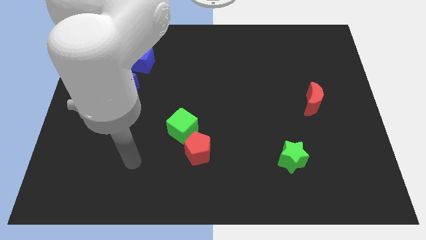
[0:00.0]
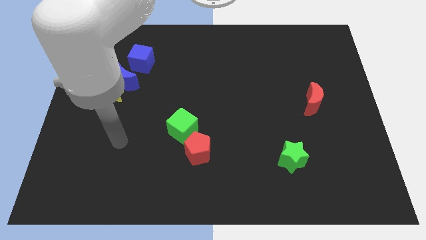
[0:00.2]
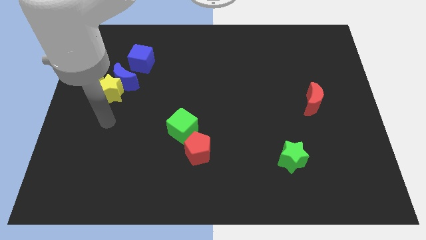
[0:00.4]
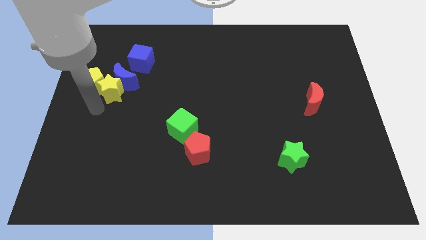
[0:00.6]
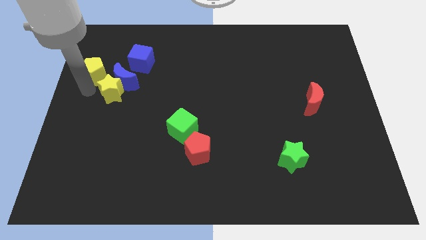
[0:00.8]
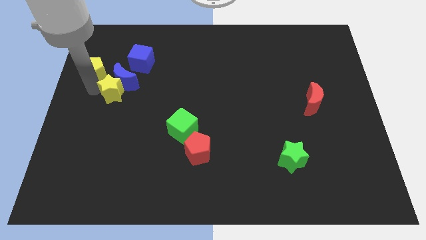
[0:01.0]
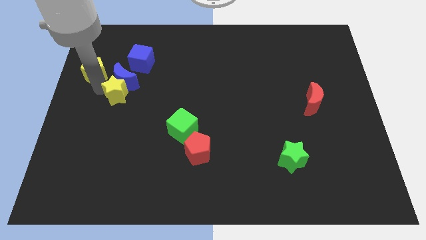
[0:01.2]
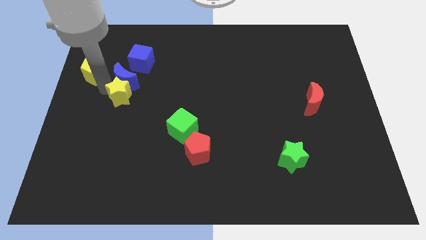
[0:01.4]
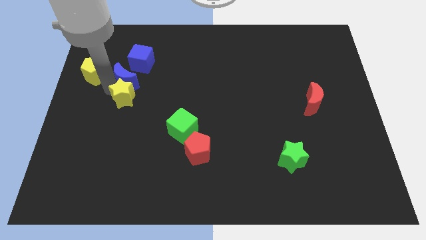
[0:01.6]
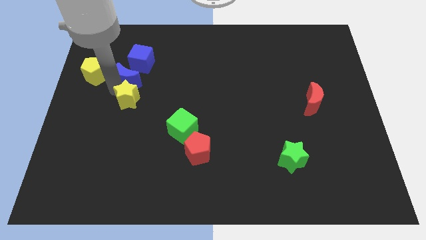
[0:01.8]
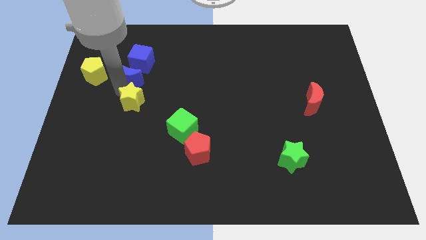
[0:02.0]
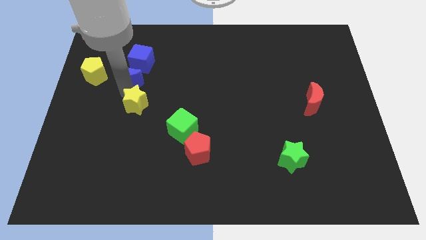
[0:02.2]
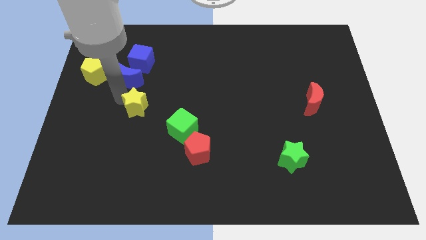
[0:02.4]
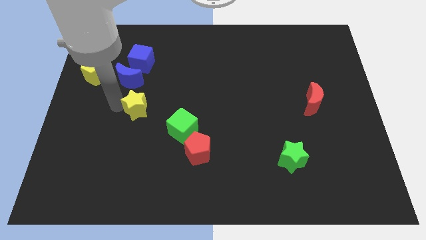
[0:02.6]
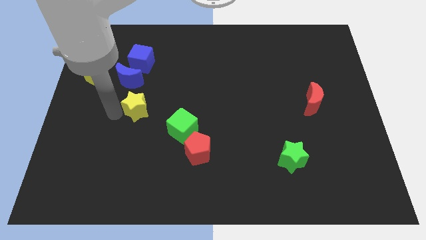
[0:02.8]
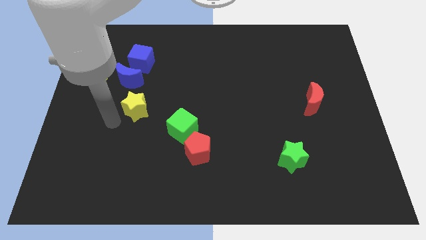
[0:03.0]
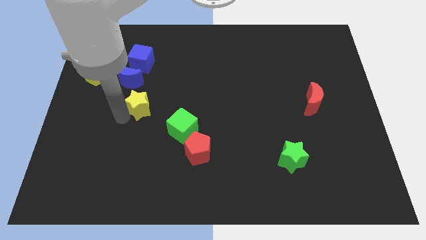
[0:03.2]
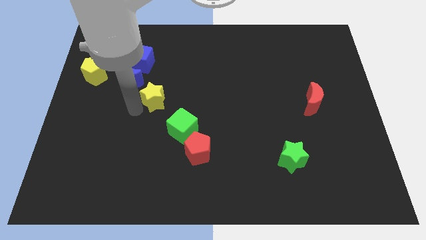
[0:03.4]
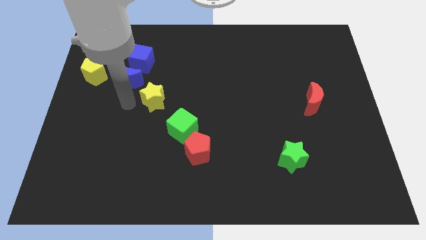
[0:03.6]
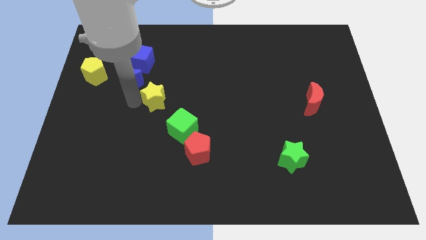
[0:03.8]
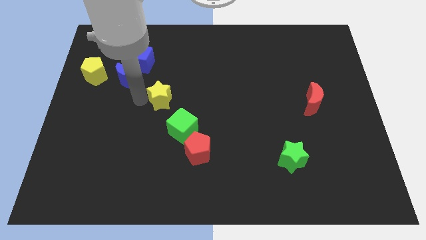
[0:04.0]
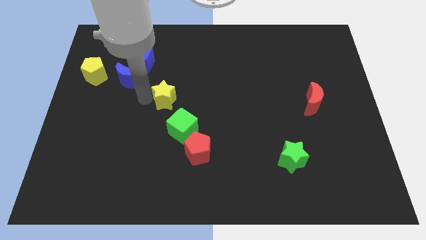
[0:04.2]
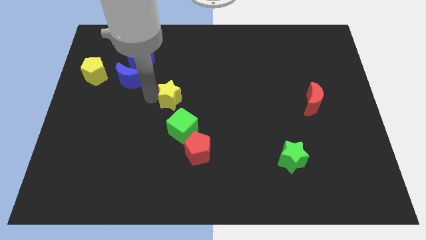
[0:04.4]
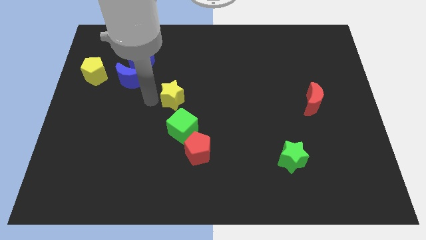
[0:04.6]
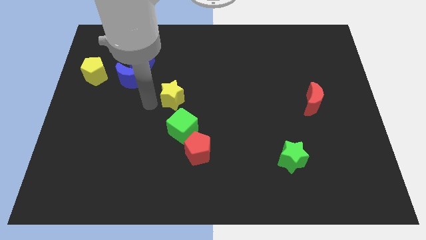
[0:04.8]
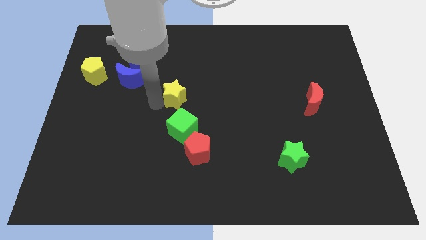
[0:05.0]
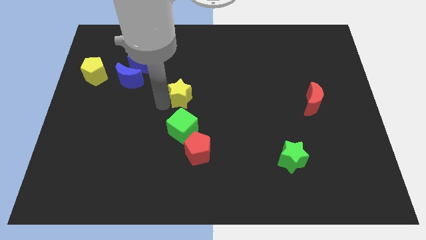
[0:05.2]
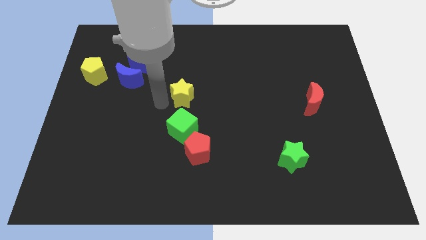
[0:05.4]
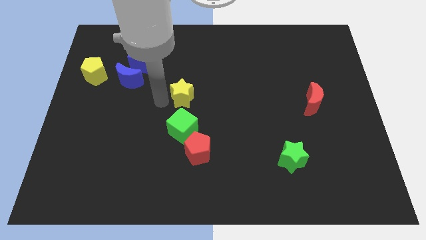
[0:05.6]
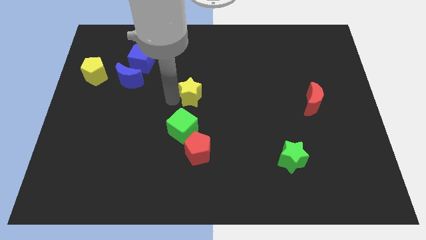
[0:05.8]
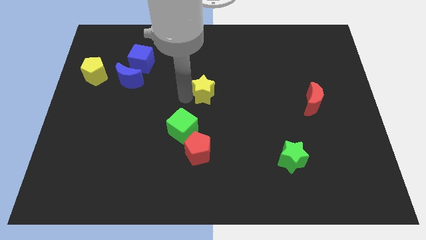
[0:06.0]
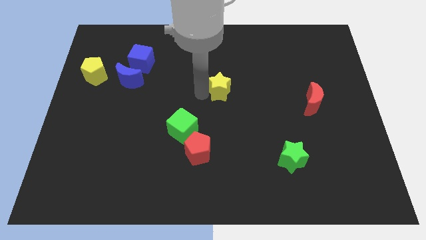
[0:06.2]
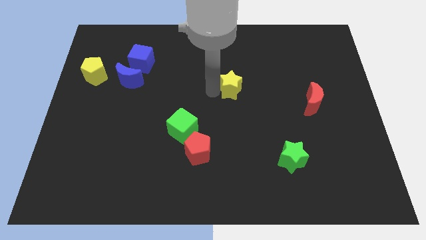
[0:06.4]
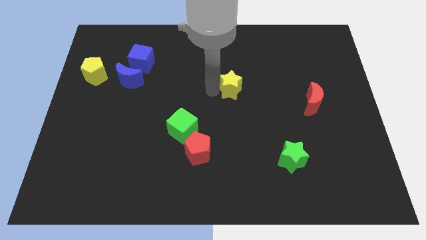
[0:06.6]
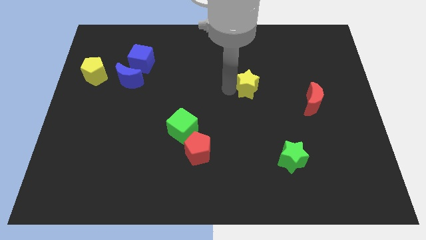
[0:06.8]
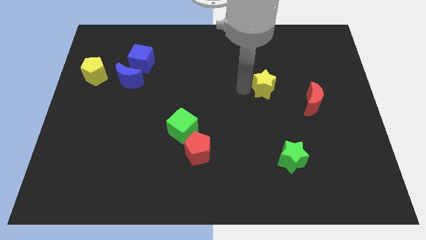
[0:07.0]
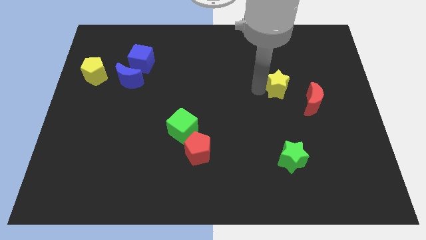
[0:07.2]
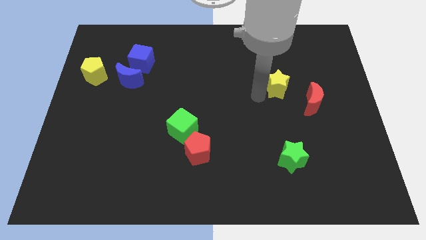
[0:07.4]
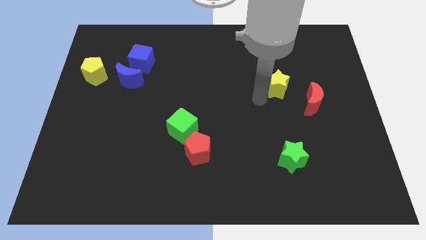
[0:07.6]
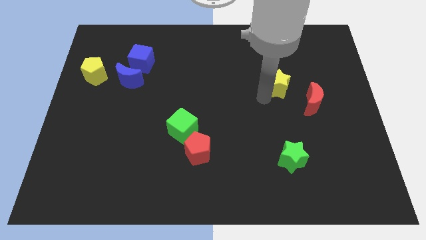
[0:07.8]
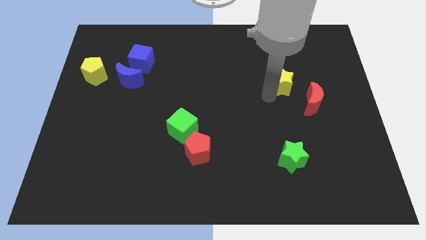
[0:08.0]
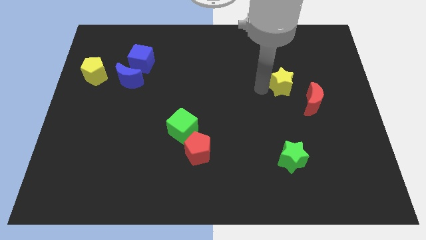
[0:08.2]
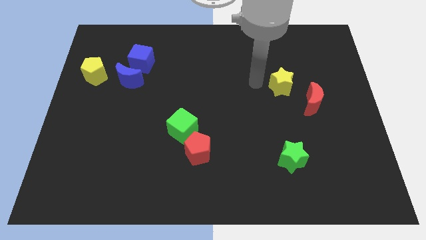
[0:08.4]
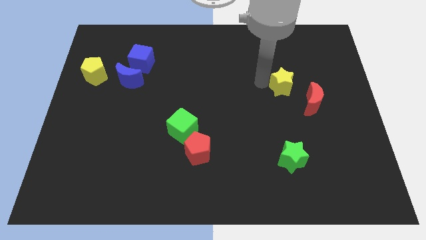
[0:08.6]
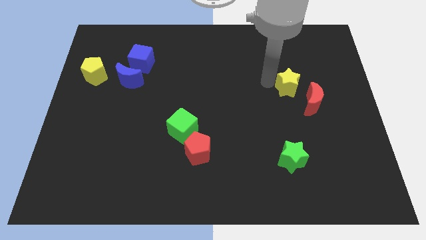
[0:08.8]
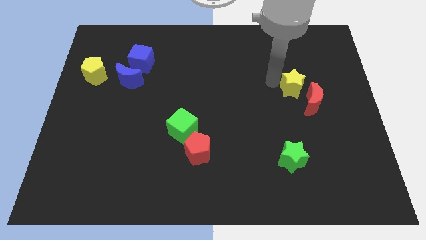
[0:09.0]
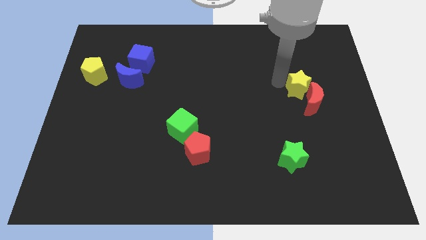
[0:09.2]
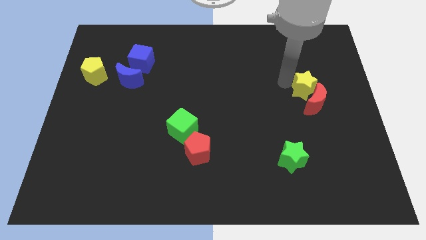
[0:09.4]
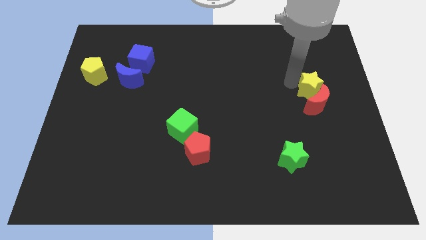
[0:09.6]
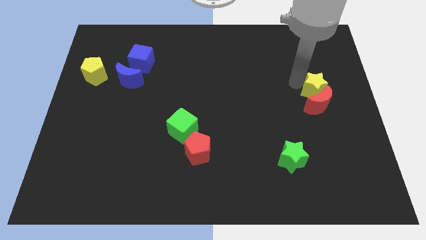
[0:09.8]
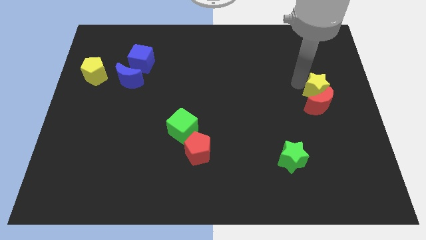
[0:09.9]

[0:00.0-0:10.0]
push the yellow star to the right side

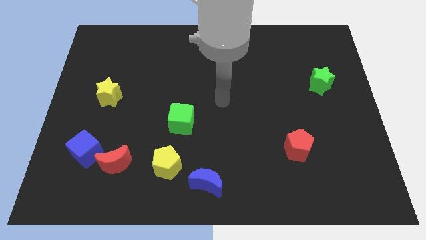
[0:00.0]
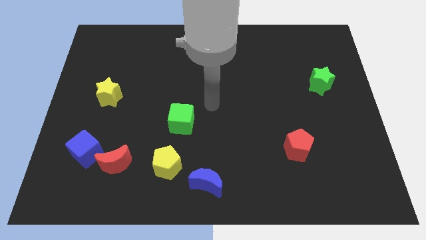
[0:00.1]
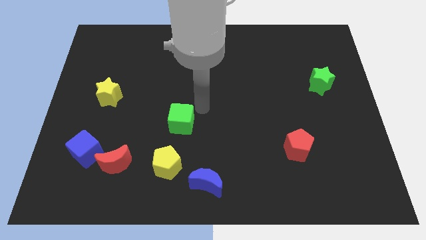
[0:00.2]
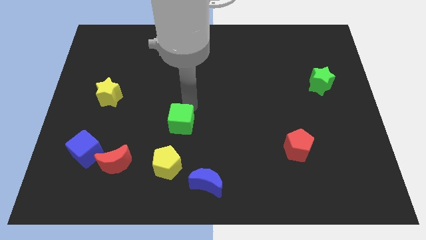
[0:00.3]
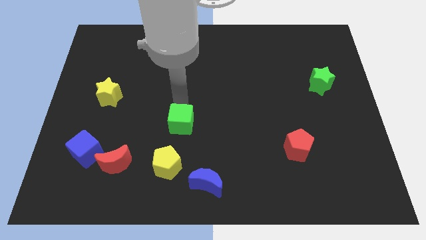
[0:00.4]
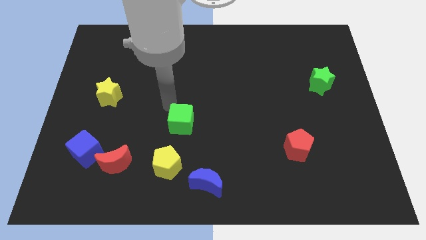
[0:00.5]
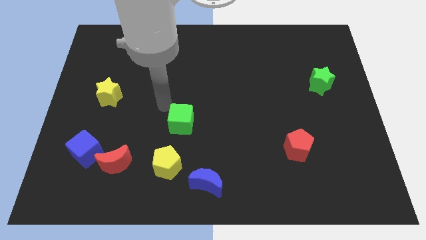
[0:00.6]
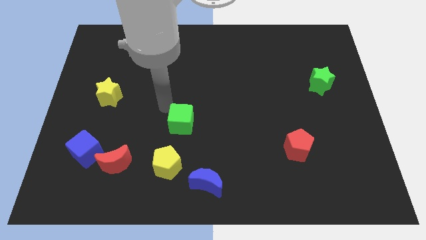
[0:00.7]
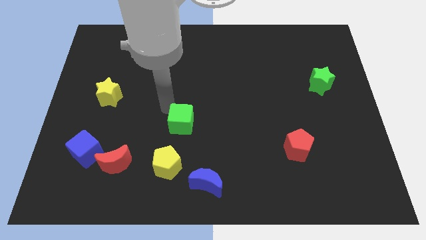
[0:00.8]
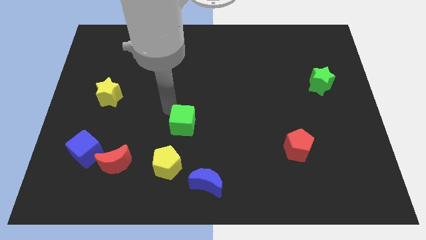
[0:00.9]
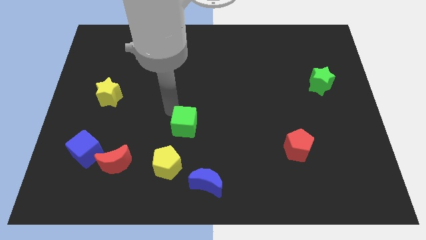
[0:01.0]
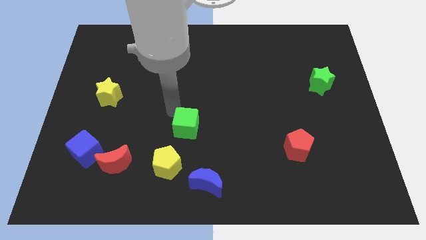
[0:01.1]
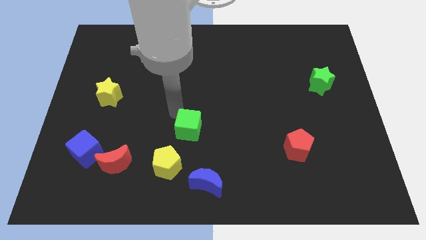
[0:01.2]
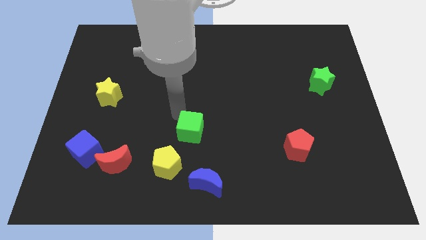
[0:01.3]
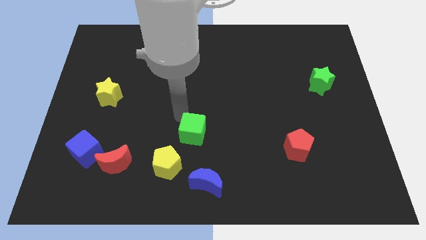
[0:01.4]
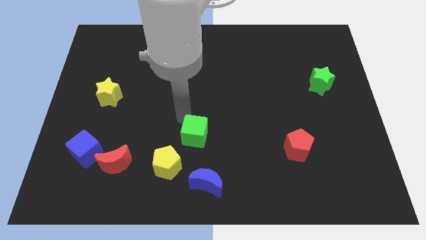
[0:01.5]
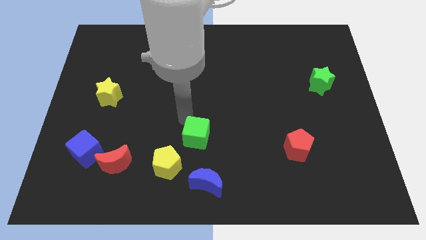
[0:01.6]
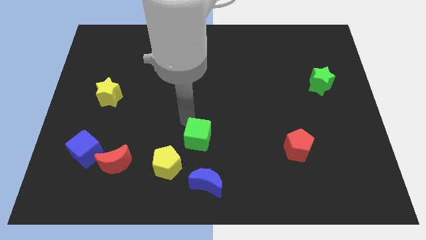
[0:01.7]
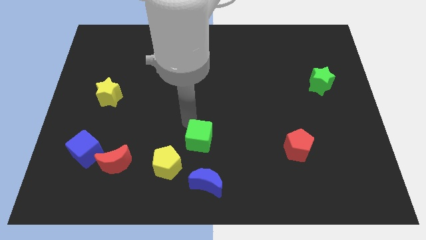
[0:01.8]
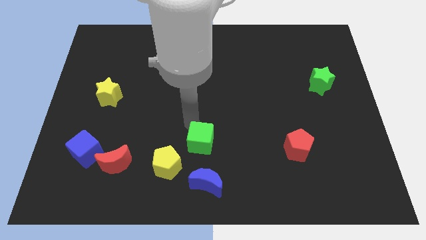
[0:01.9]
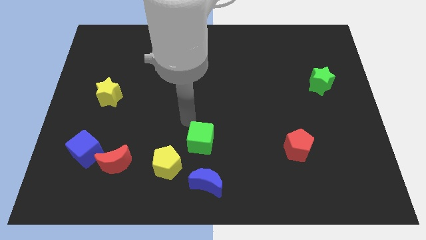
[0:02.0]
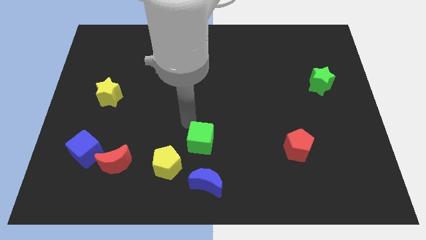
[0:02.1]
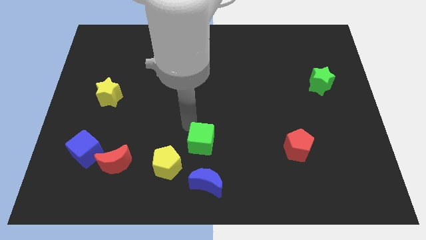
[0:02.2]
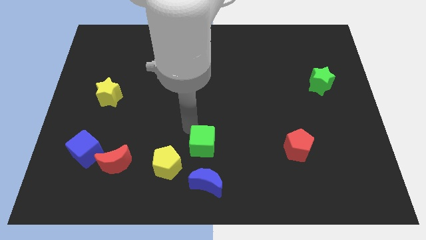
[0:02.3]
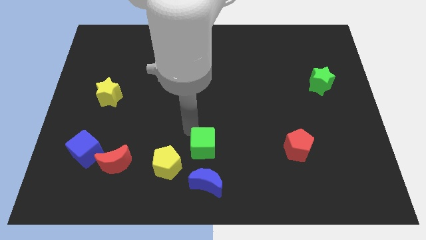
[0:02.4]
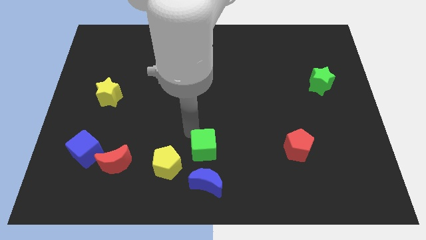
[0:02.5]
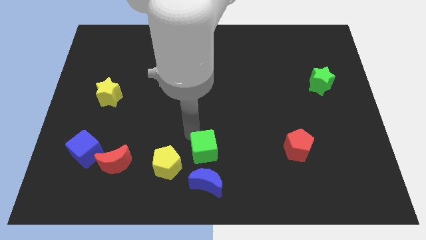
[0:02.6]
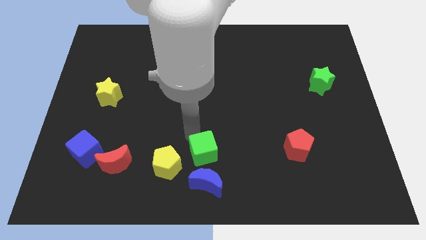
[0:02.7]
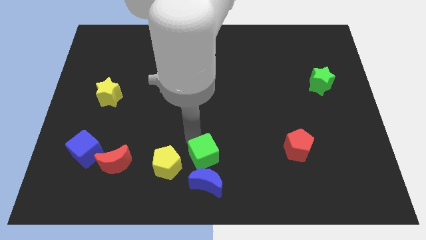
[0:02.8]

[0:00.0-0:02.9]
push the green cube to the bottom side
